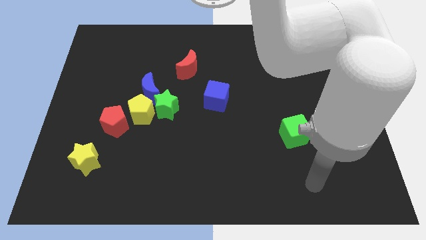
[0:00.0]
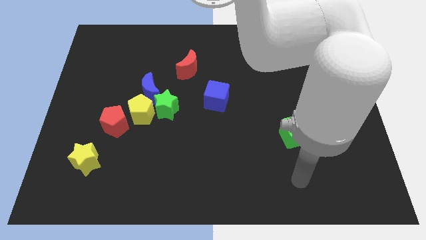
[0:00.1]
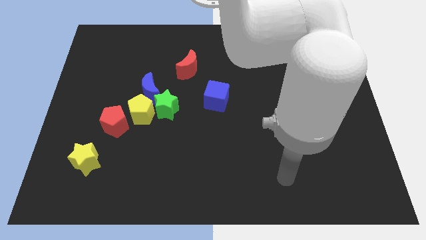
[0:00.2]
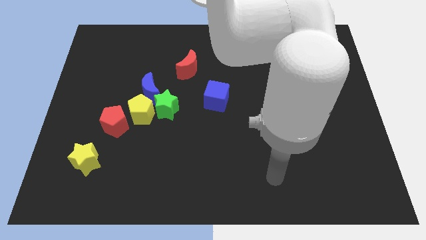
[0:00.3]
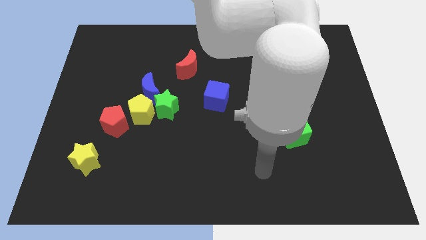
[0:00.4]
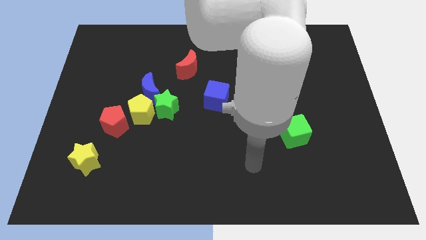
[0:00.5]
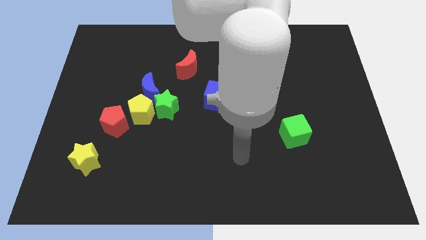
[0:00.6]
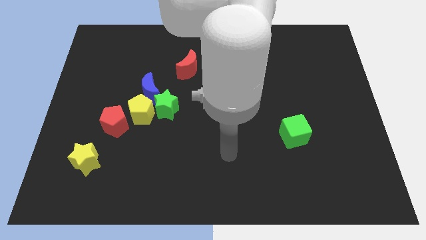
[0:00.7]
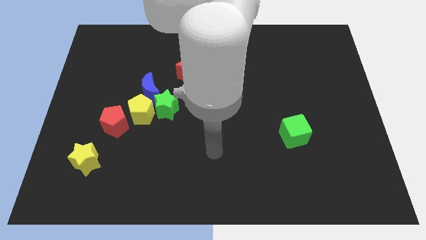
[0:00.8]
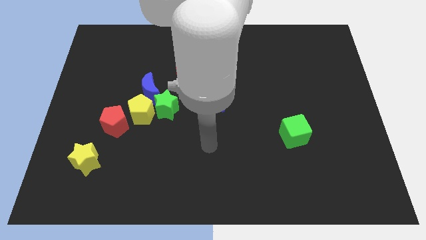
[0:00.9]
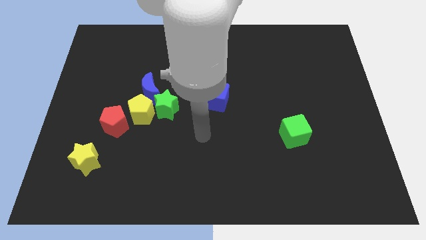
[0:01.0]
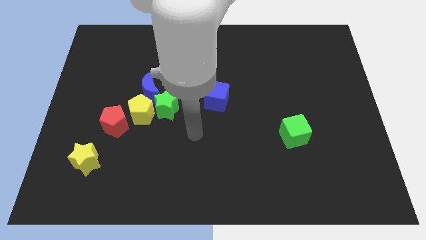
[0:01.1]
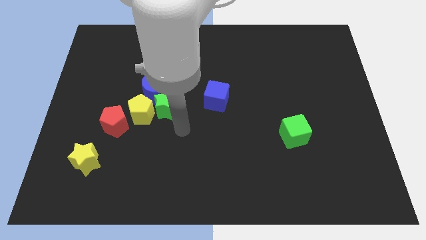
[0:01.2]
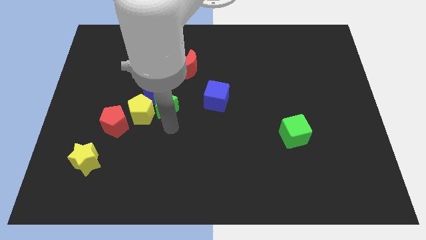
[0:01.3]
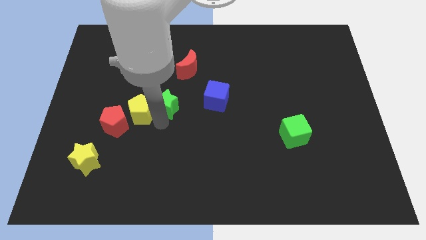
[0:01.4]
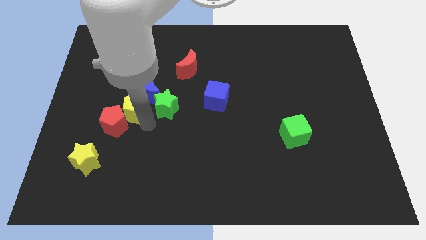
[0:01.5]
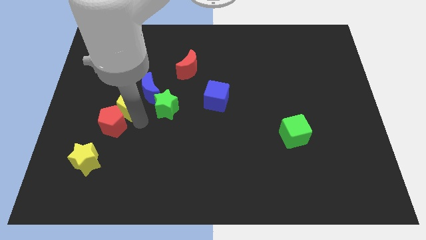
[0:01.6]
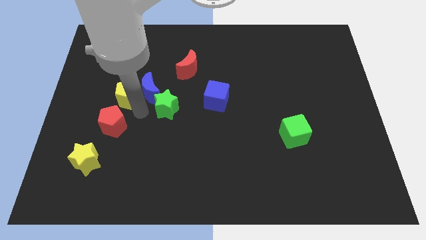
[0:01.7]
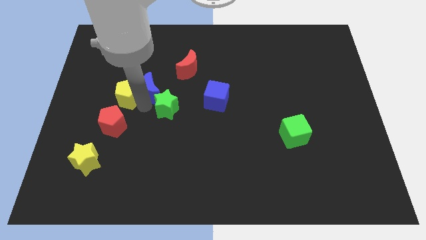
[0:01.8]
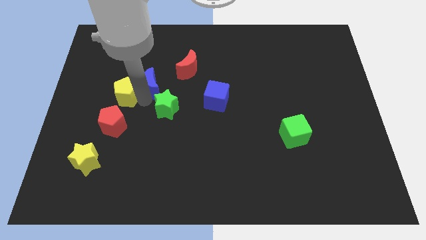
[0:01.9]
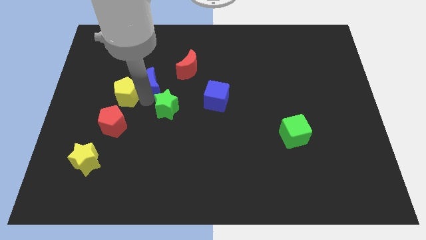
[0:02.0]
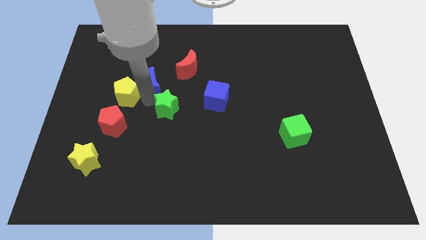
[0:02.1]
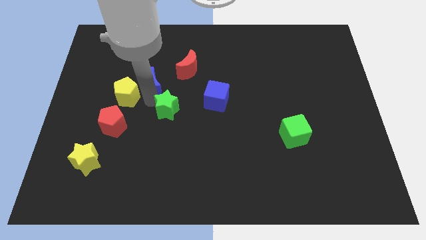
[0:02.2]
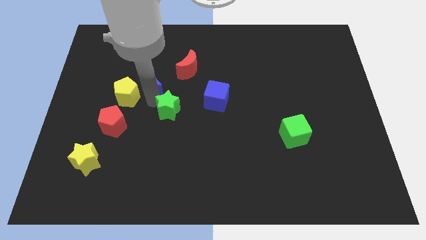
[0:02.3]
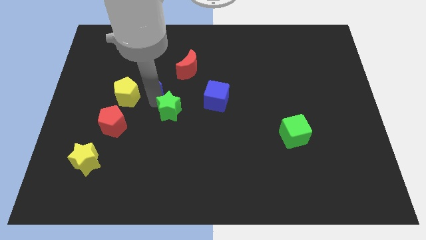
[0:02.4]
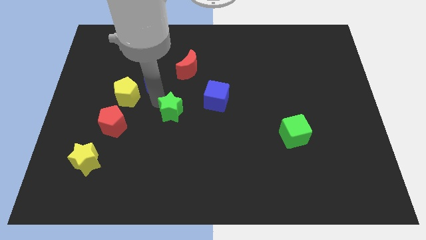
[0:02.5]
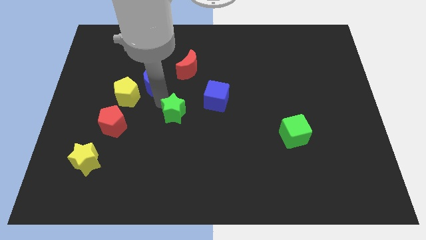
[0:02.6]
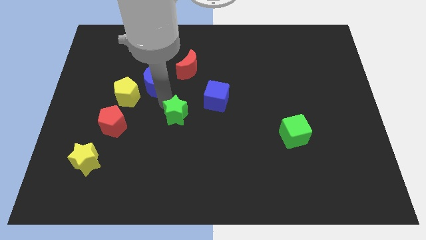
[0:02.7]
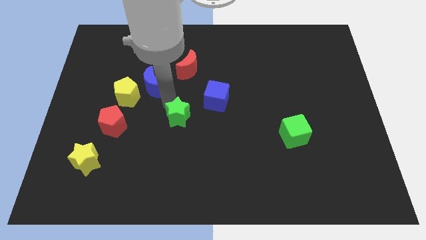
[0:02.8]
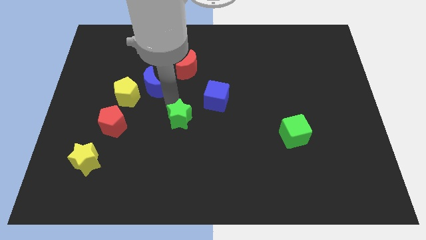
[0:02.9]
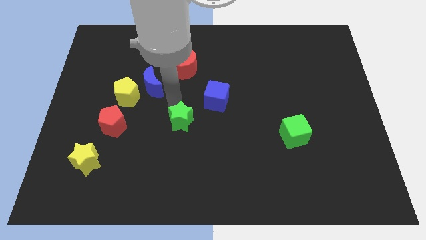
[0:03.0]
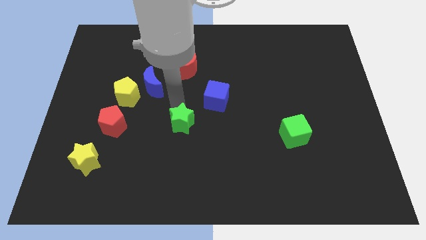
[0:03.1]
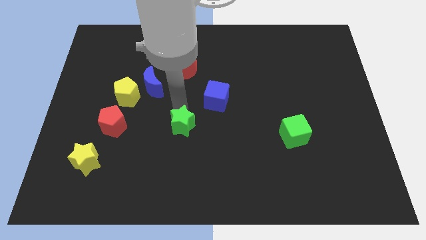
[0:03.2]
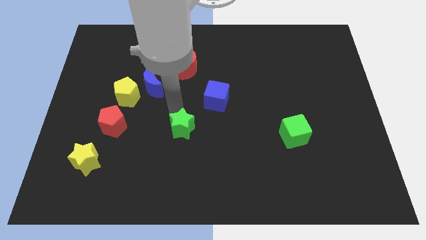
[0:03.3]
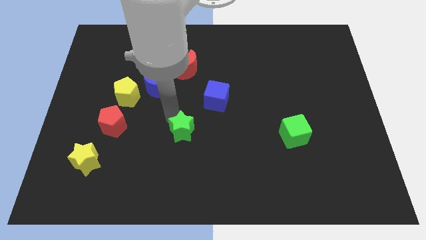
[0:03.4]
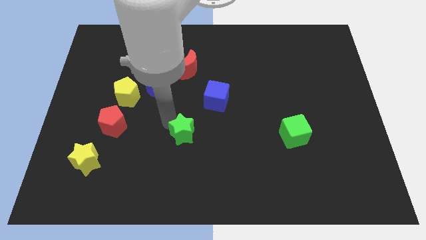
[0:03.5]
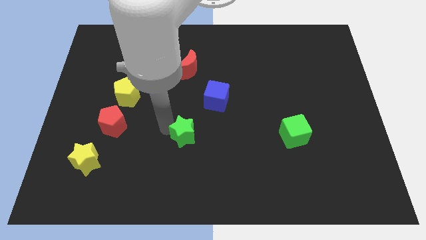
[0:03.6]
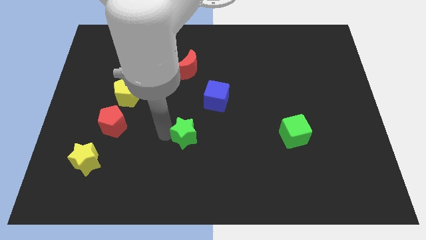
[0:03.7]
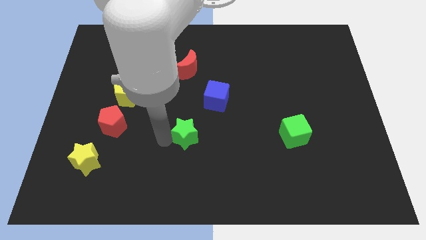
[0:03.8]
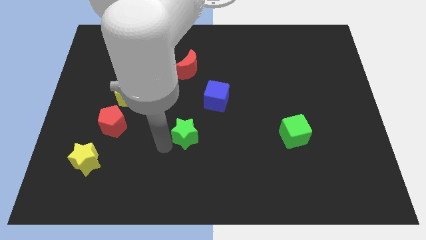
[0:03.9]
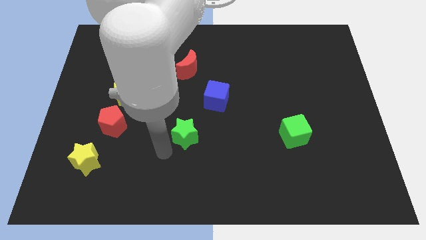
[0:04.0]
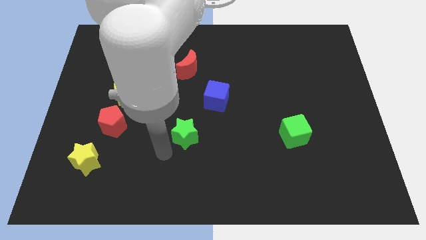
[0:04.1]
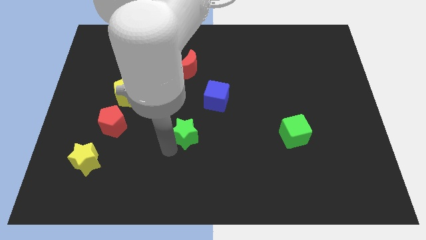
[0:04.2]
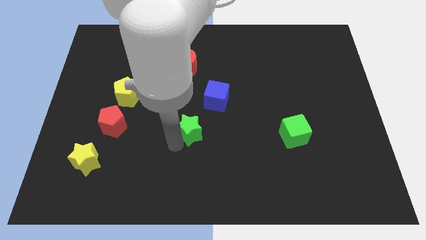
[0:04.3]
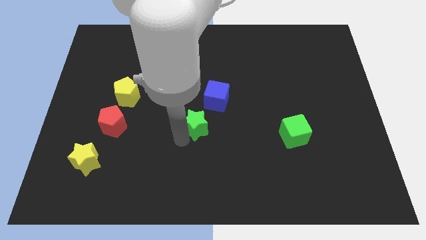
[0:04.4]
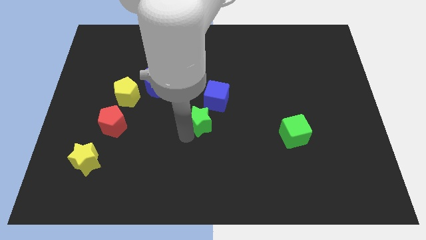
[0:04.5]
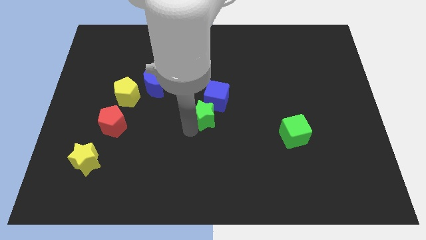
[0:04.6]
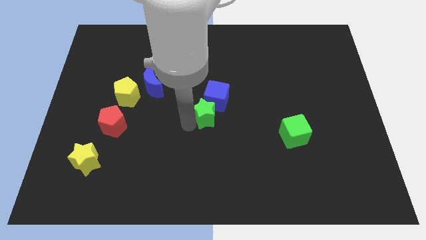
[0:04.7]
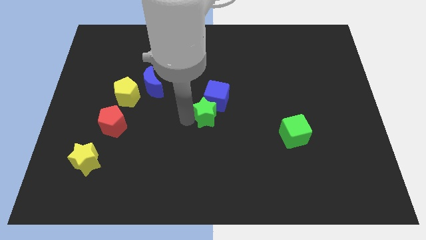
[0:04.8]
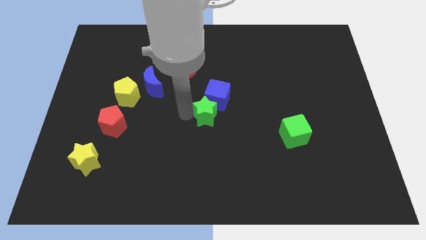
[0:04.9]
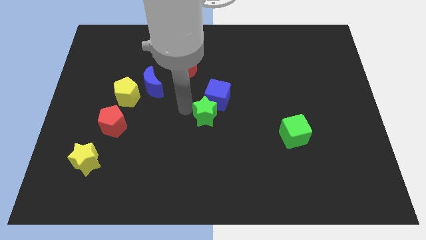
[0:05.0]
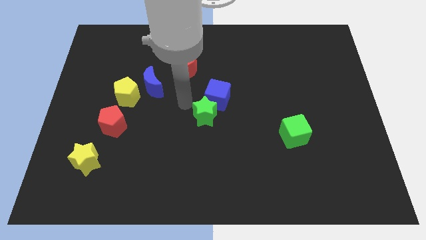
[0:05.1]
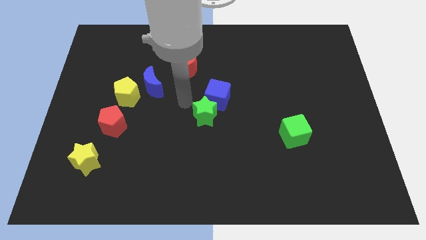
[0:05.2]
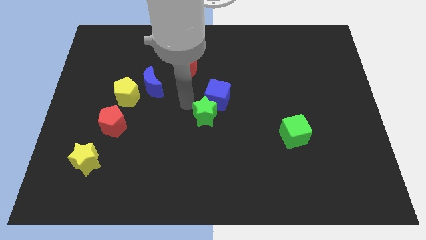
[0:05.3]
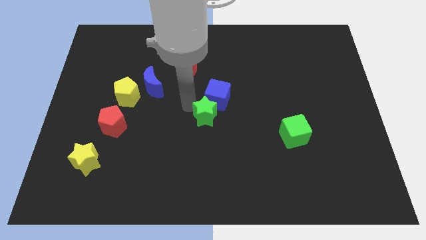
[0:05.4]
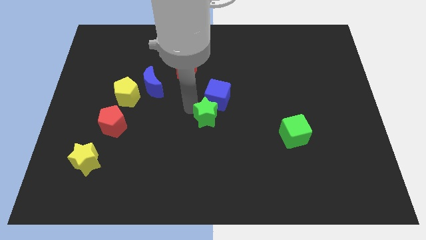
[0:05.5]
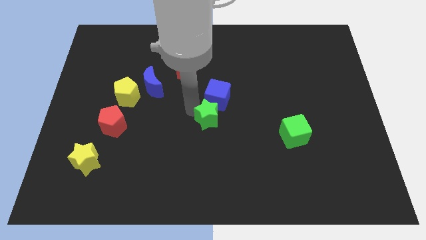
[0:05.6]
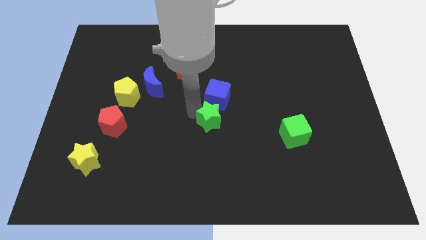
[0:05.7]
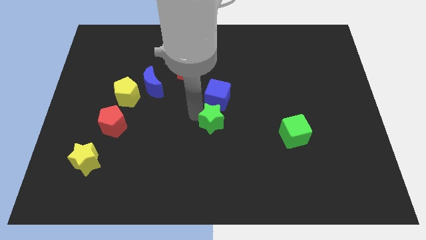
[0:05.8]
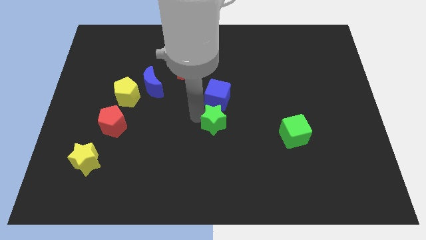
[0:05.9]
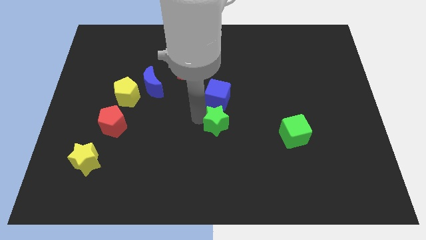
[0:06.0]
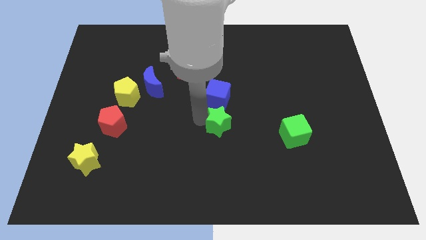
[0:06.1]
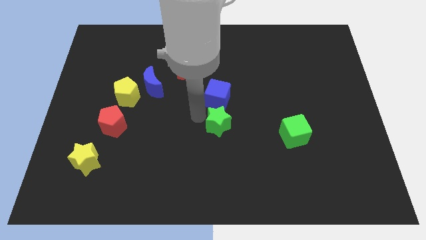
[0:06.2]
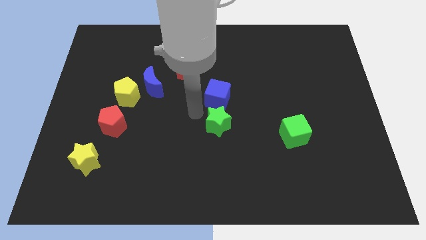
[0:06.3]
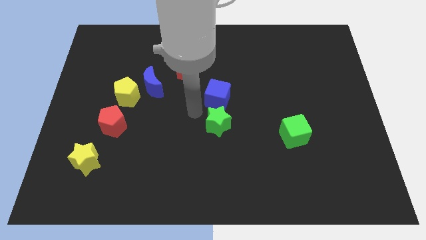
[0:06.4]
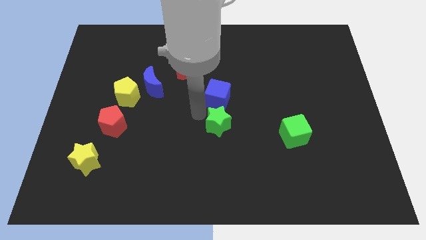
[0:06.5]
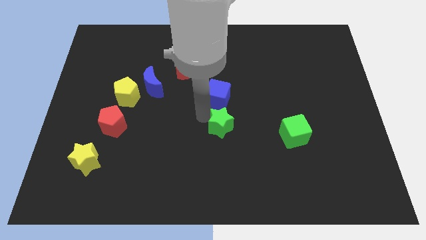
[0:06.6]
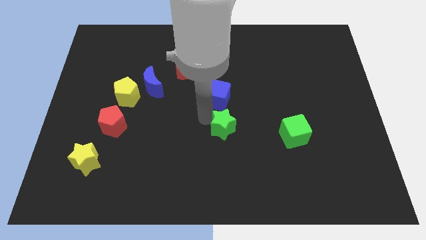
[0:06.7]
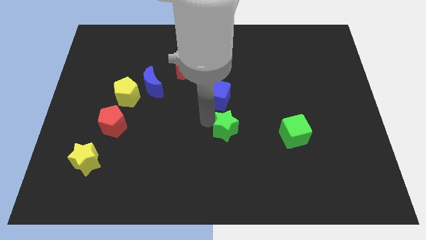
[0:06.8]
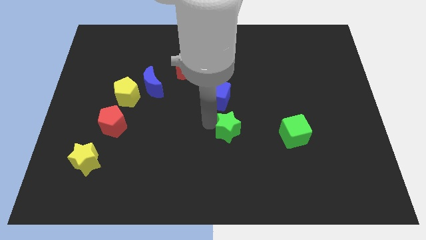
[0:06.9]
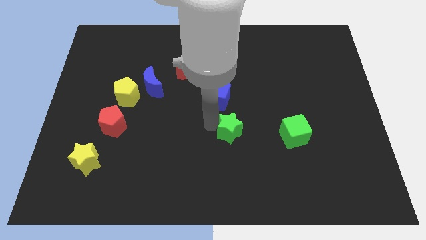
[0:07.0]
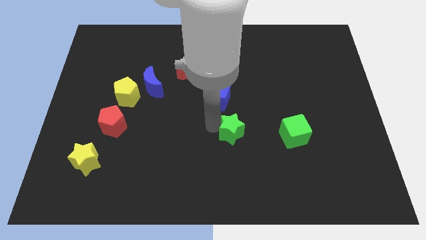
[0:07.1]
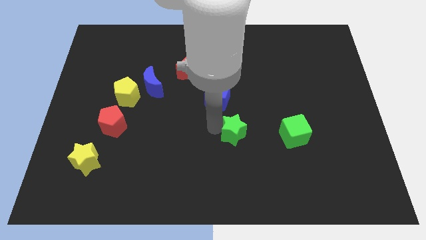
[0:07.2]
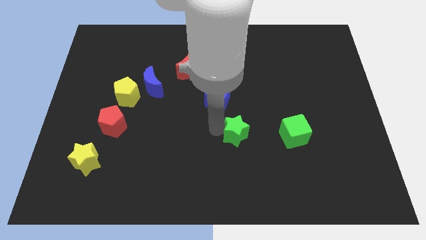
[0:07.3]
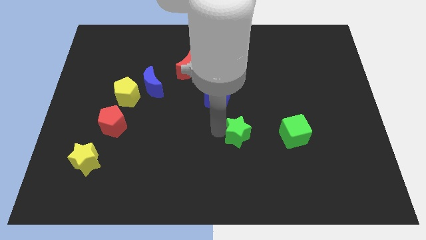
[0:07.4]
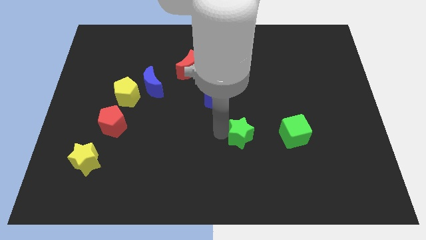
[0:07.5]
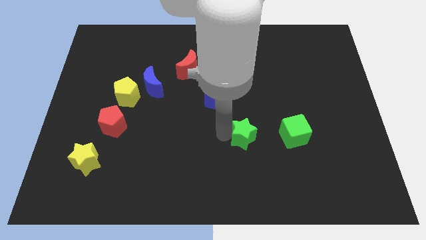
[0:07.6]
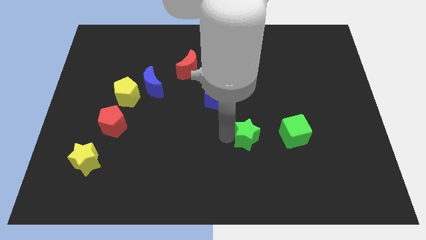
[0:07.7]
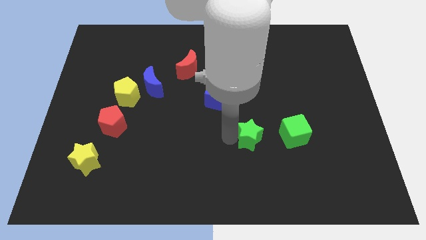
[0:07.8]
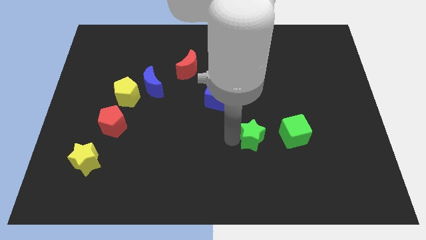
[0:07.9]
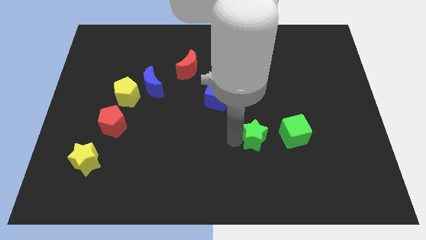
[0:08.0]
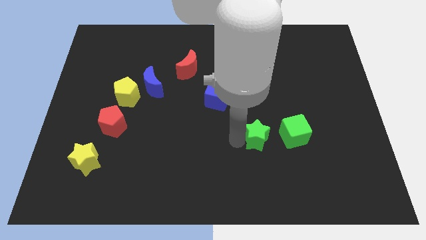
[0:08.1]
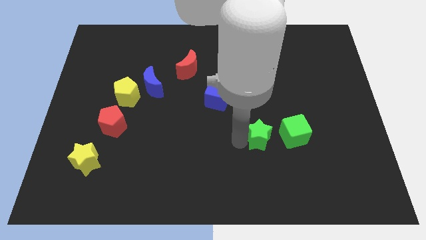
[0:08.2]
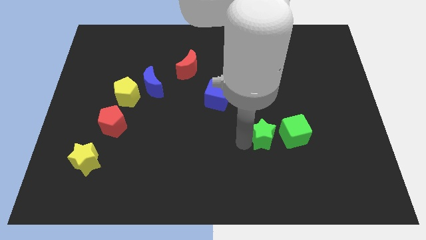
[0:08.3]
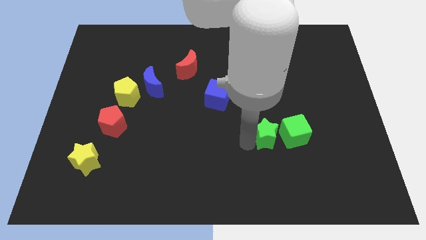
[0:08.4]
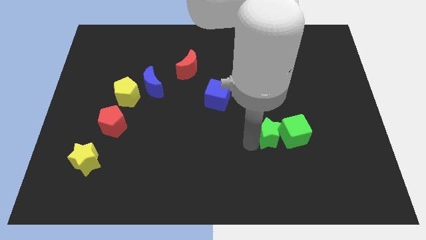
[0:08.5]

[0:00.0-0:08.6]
put the green star next to the green cube
